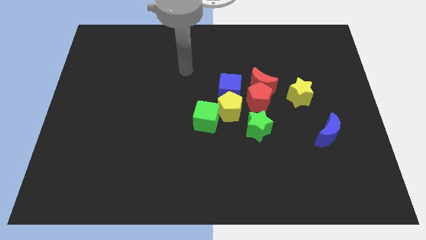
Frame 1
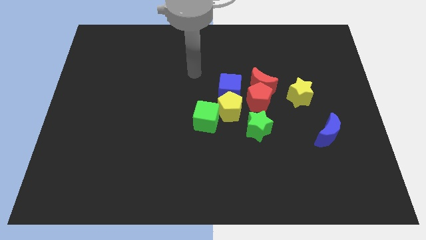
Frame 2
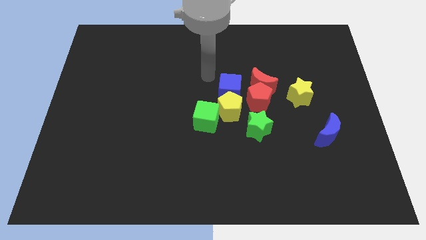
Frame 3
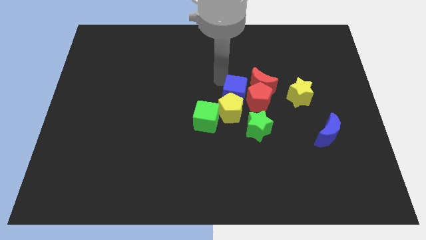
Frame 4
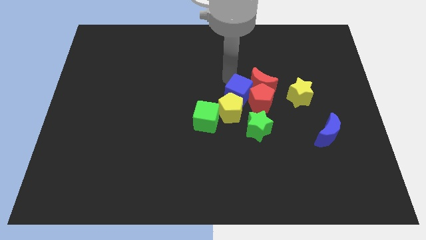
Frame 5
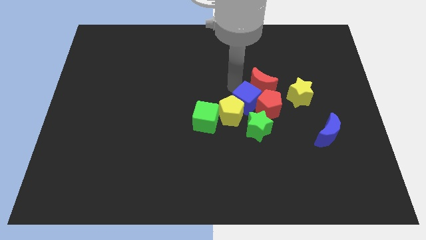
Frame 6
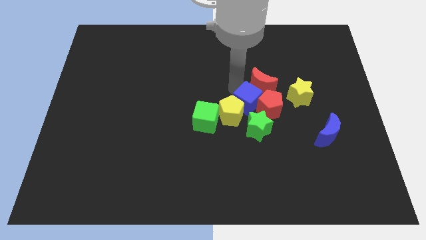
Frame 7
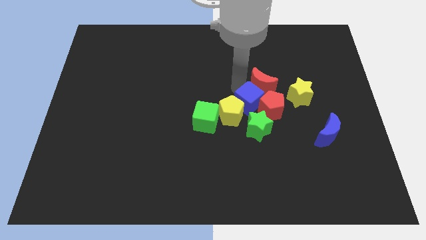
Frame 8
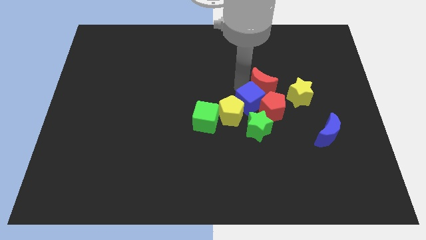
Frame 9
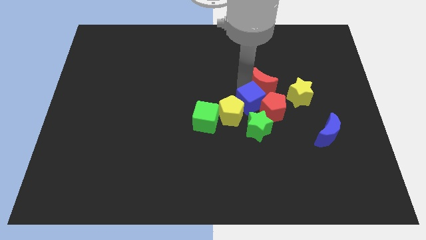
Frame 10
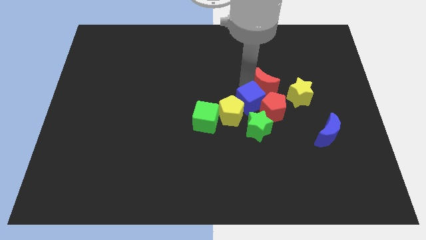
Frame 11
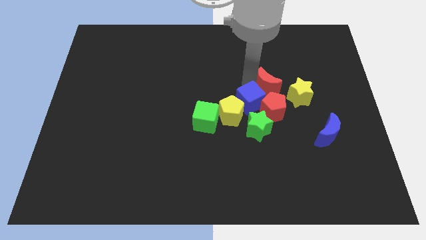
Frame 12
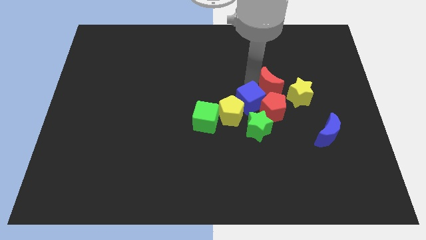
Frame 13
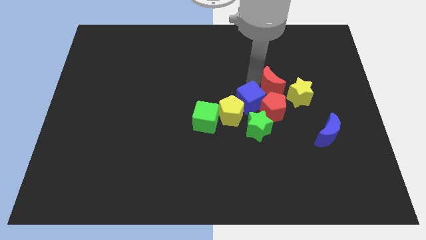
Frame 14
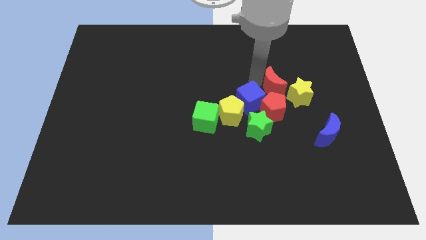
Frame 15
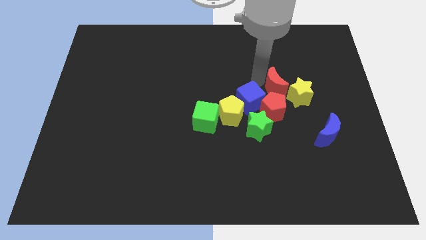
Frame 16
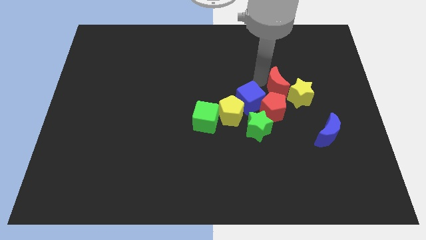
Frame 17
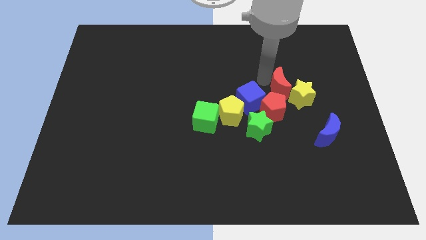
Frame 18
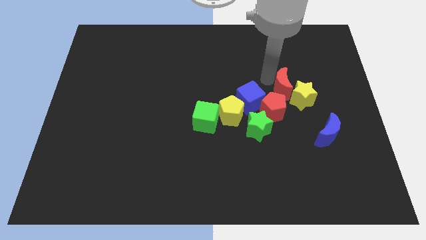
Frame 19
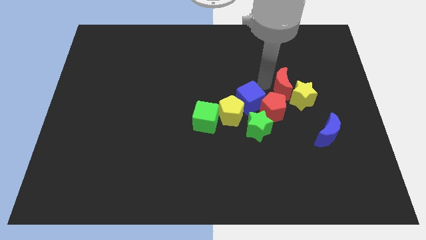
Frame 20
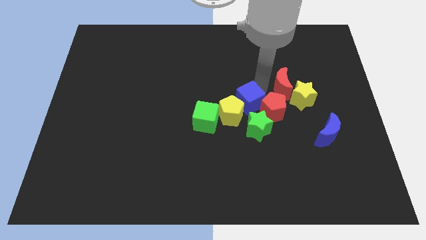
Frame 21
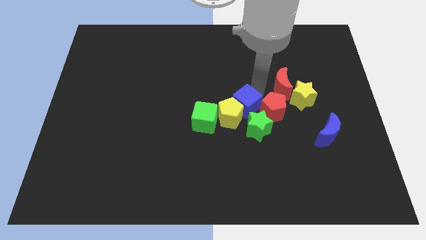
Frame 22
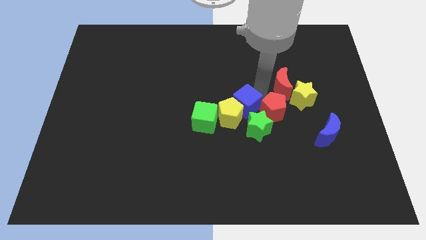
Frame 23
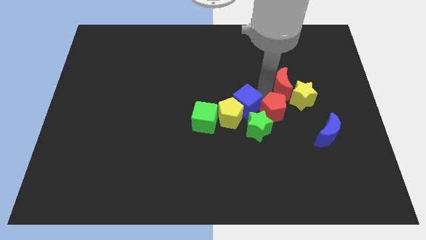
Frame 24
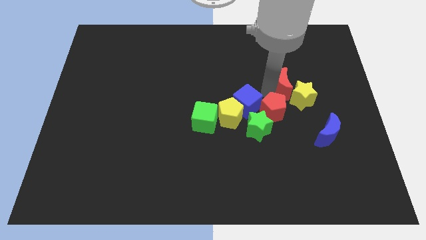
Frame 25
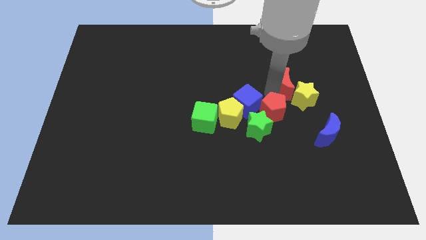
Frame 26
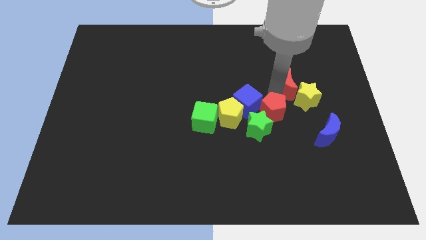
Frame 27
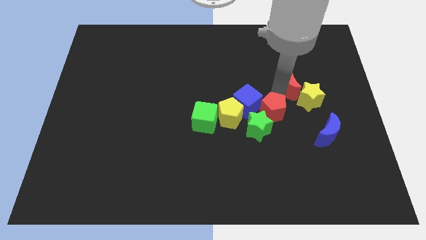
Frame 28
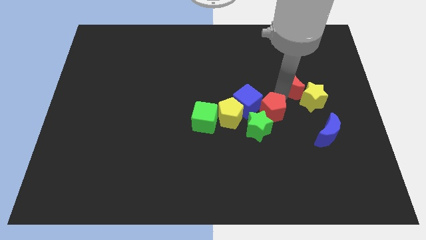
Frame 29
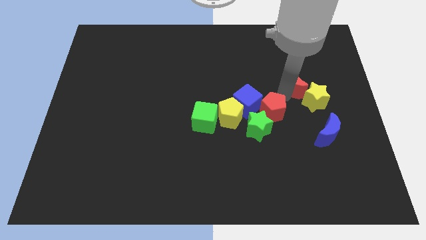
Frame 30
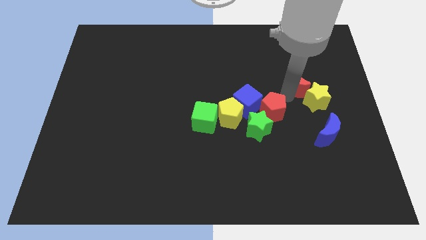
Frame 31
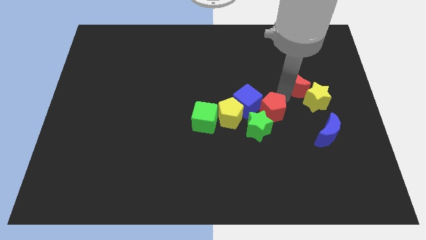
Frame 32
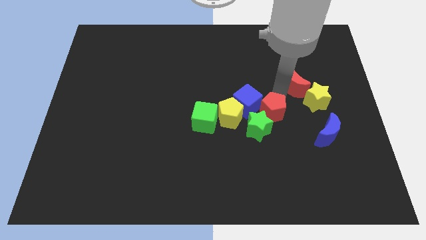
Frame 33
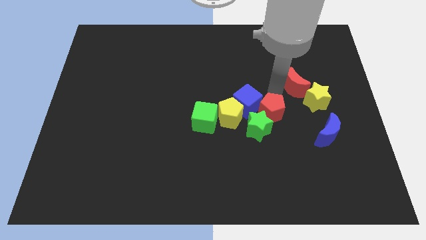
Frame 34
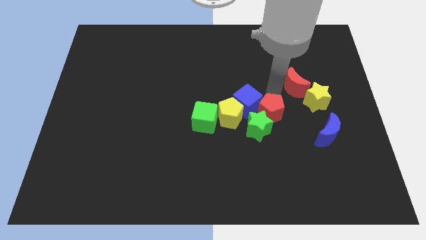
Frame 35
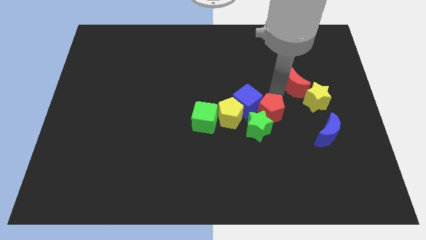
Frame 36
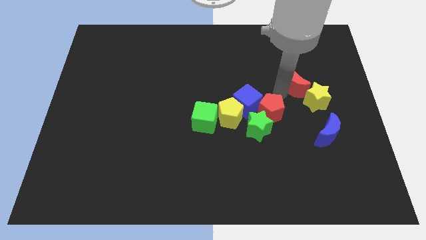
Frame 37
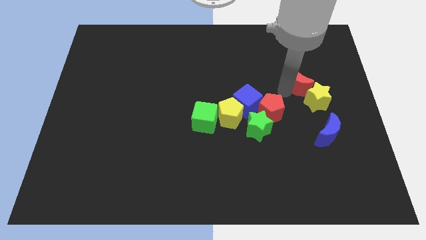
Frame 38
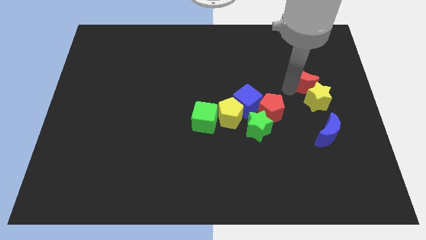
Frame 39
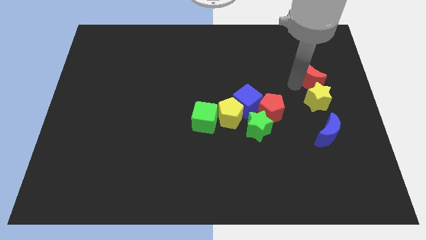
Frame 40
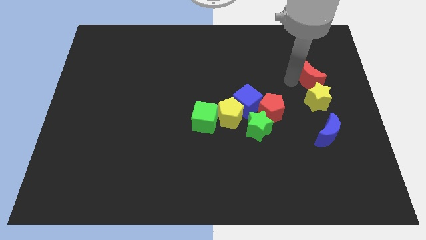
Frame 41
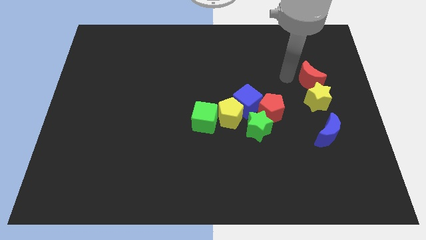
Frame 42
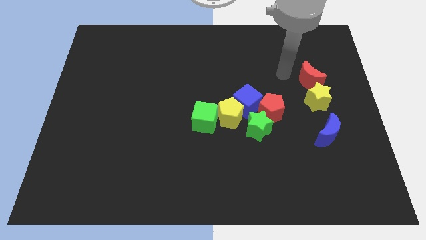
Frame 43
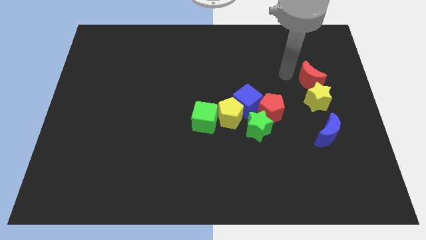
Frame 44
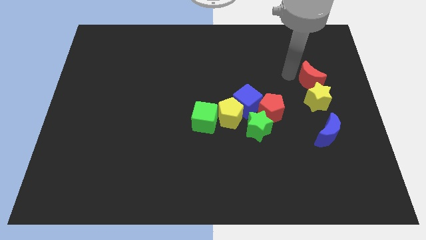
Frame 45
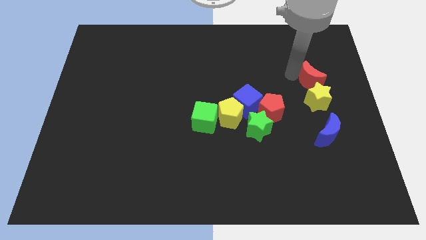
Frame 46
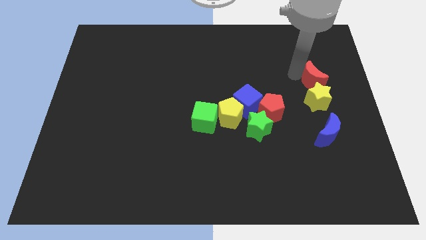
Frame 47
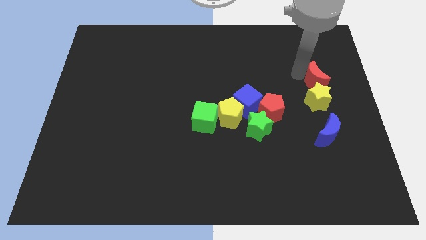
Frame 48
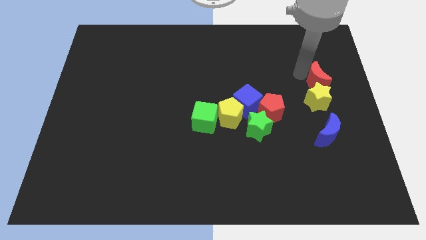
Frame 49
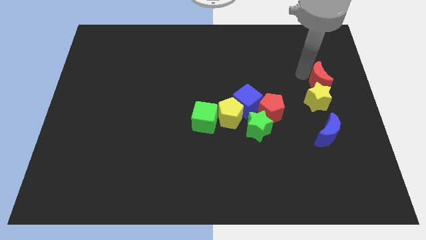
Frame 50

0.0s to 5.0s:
put the red moon to the center right

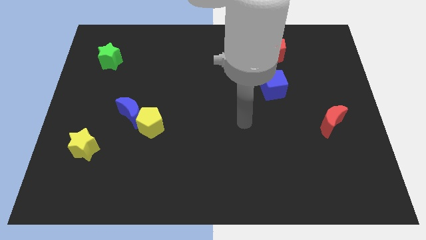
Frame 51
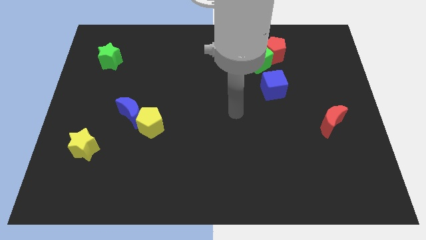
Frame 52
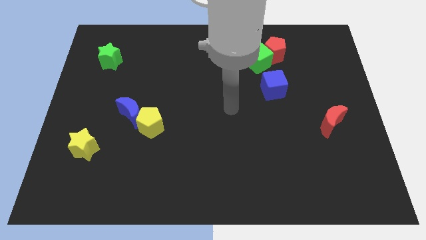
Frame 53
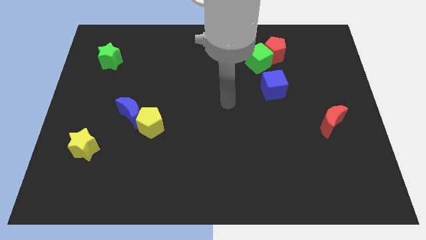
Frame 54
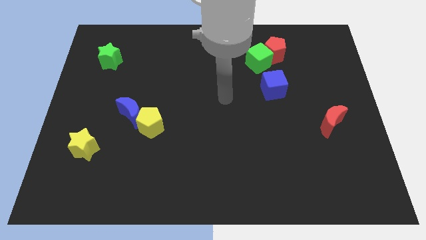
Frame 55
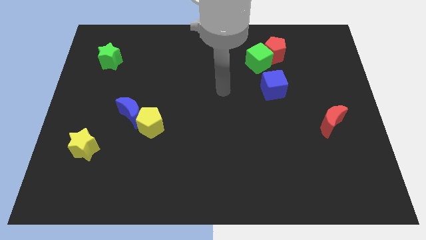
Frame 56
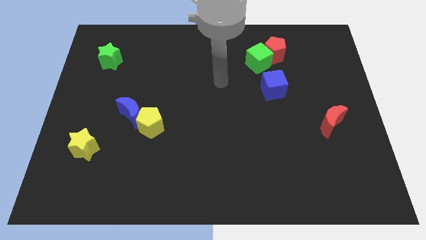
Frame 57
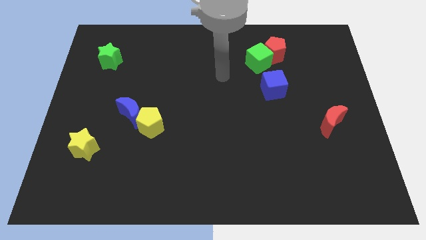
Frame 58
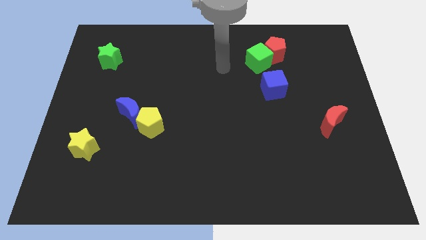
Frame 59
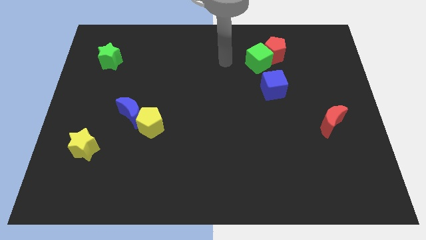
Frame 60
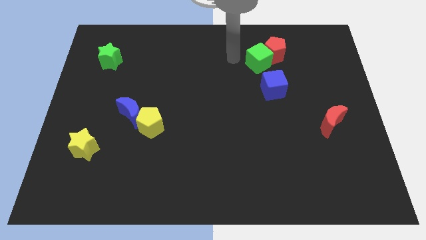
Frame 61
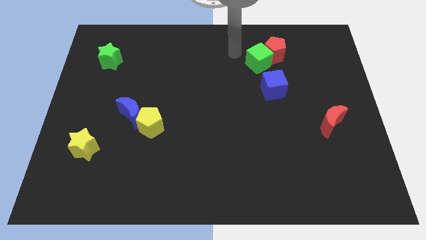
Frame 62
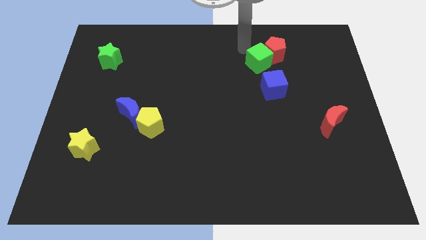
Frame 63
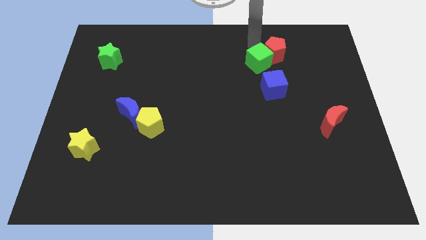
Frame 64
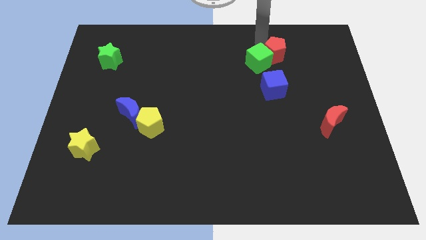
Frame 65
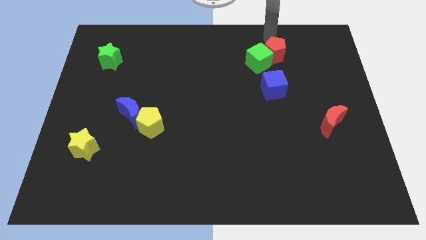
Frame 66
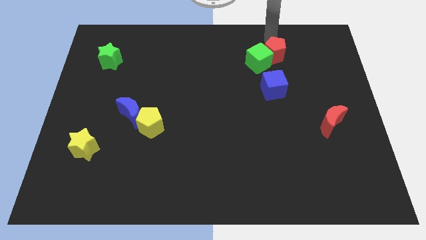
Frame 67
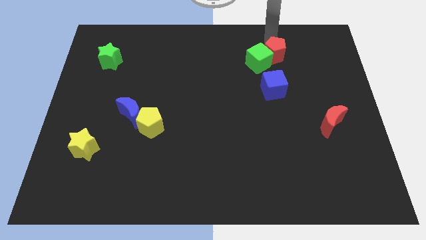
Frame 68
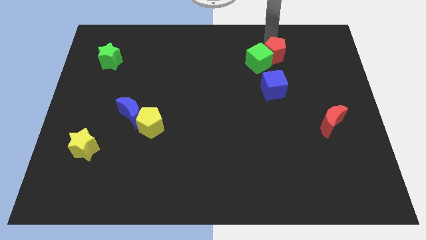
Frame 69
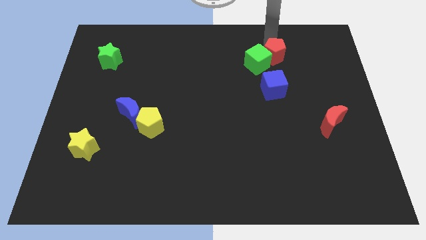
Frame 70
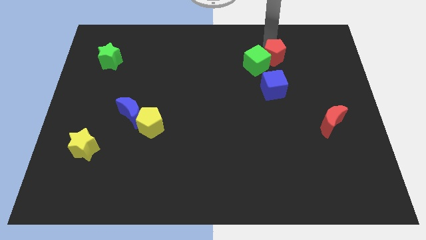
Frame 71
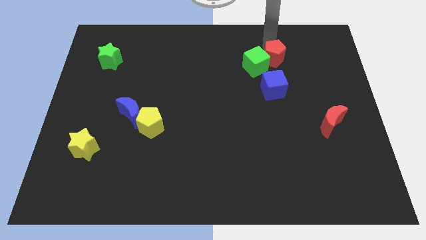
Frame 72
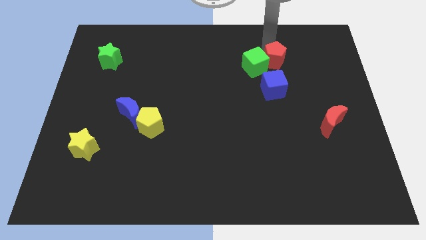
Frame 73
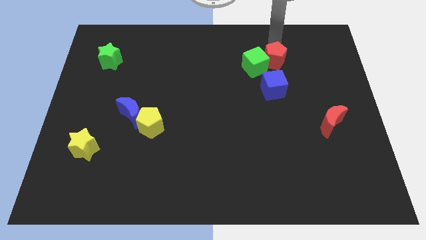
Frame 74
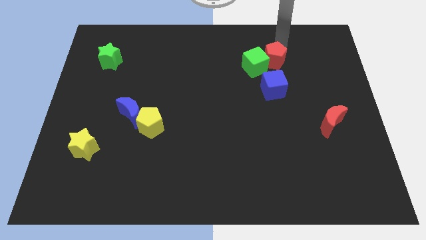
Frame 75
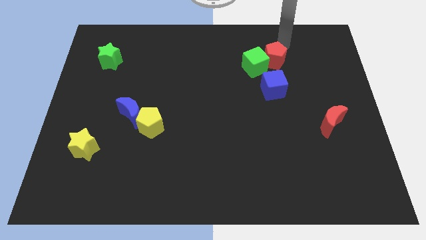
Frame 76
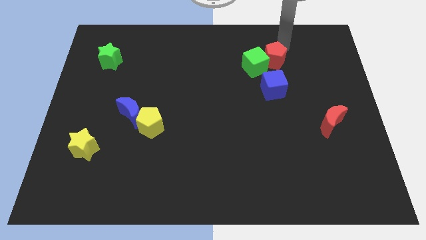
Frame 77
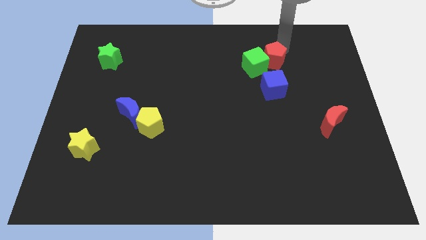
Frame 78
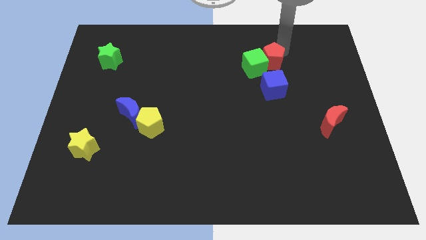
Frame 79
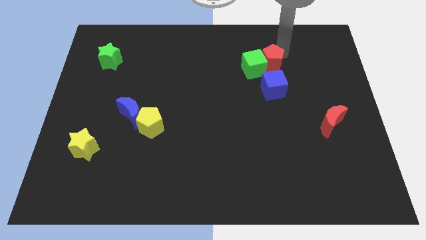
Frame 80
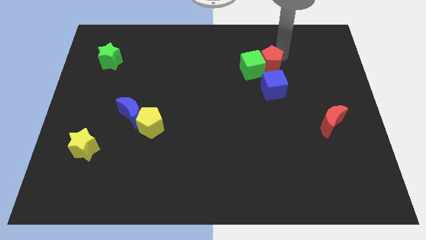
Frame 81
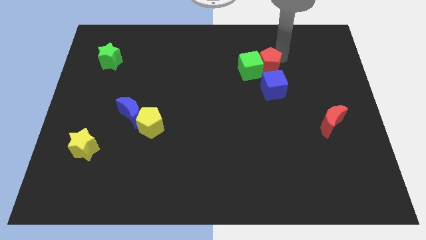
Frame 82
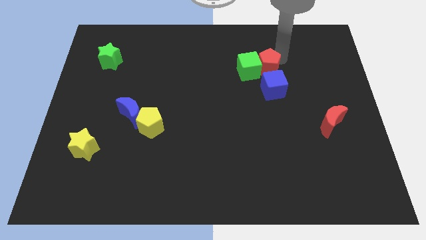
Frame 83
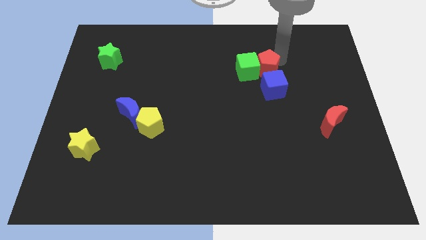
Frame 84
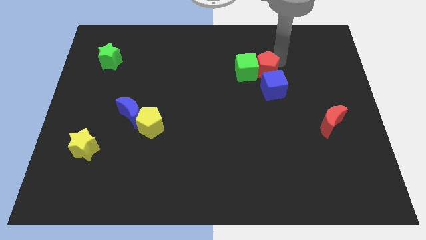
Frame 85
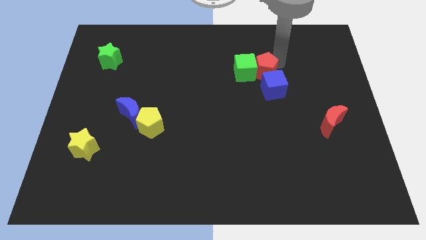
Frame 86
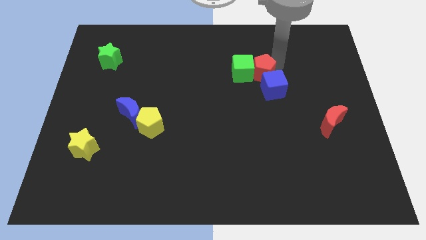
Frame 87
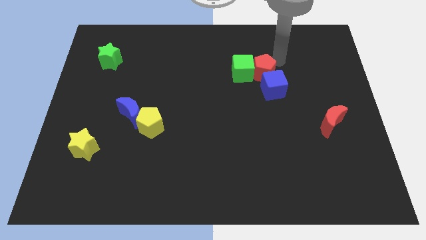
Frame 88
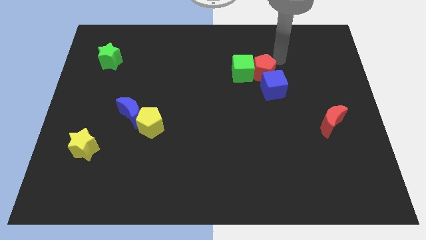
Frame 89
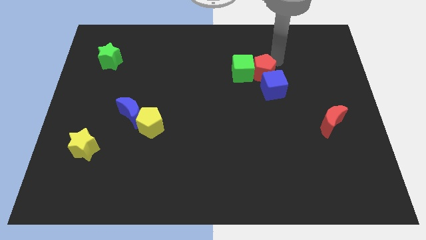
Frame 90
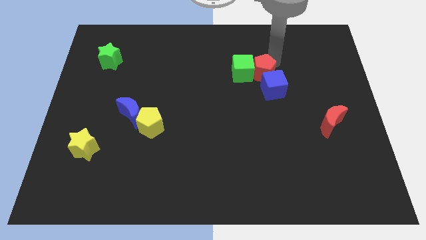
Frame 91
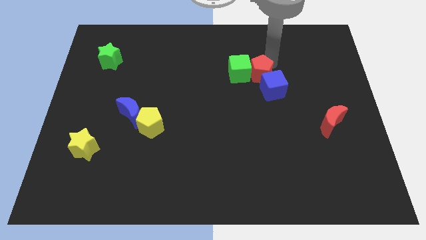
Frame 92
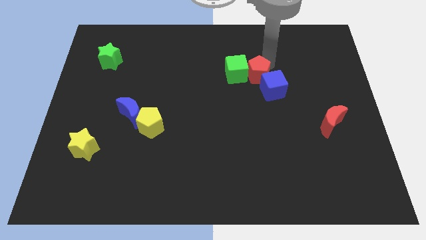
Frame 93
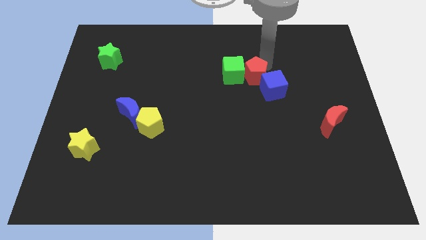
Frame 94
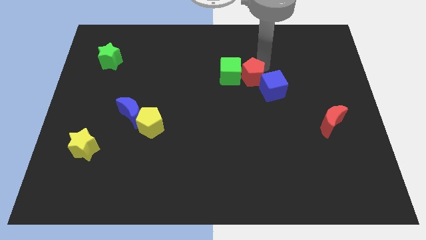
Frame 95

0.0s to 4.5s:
put the red pentagon to the middle of the board
